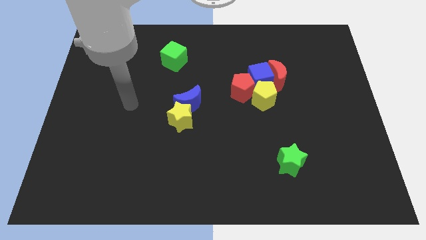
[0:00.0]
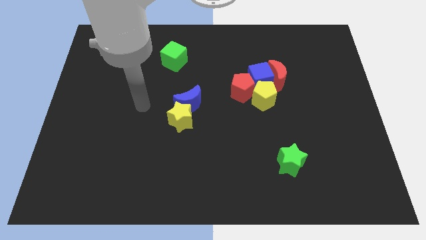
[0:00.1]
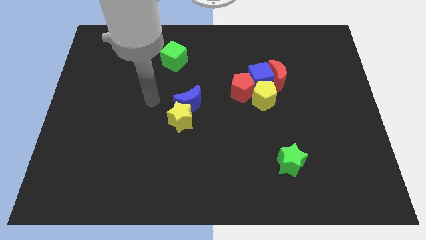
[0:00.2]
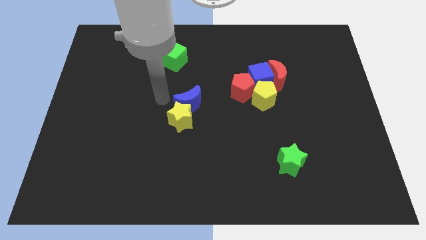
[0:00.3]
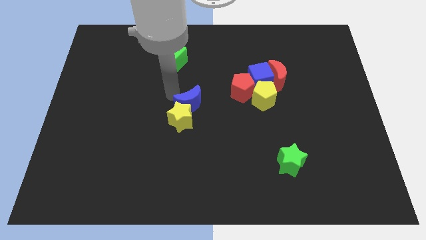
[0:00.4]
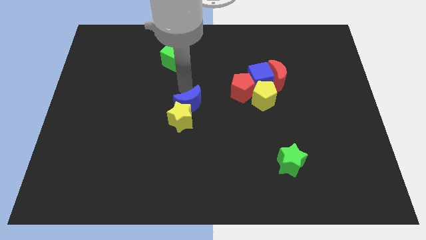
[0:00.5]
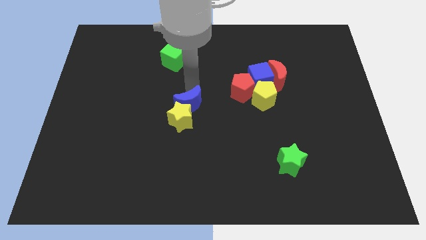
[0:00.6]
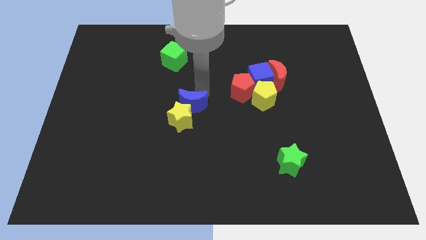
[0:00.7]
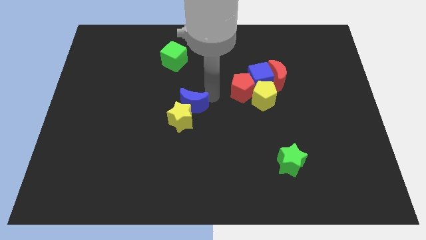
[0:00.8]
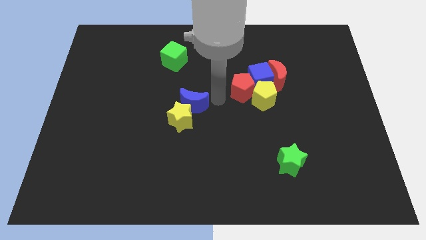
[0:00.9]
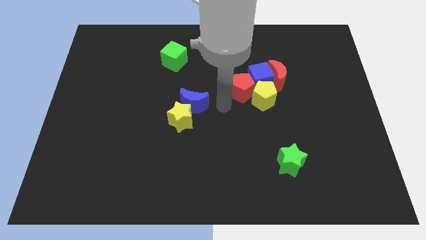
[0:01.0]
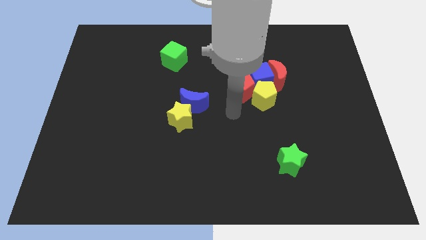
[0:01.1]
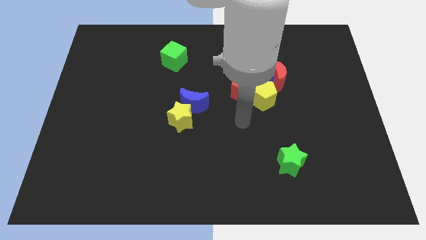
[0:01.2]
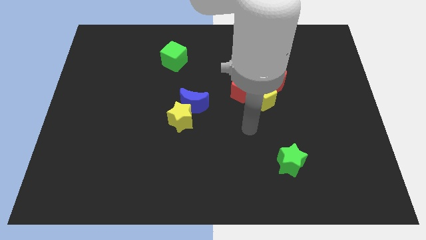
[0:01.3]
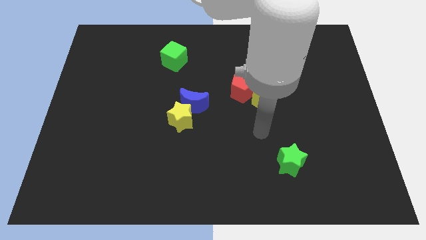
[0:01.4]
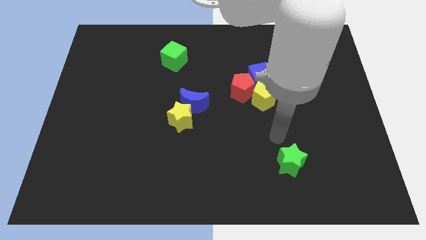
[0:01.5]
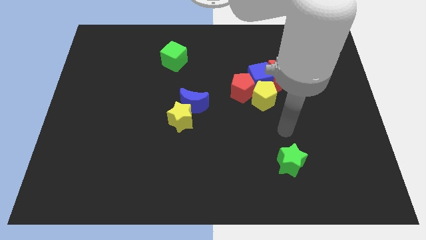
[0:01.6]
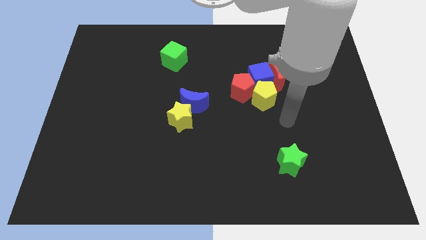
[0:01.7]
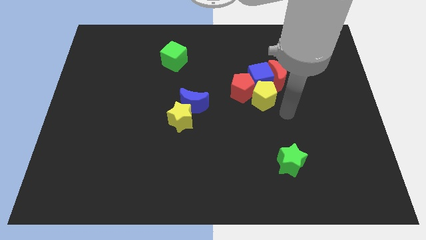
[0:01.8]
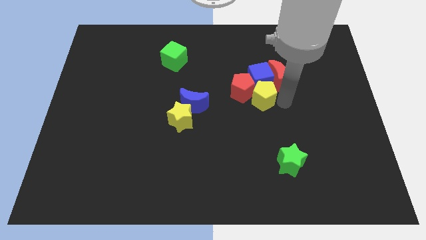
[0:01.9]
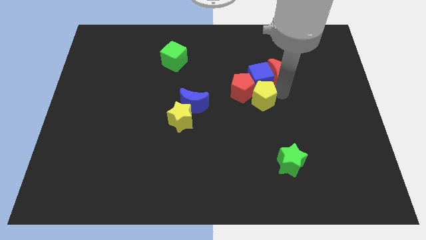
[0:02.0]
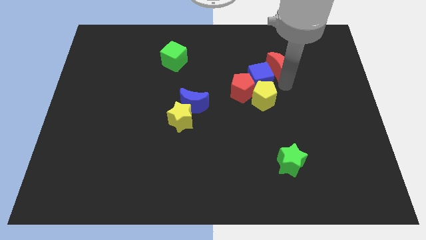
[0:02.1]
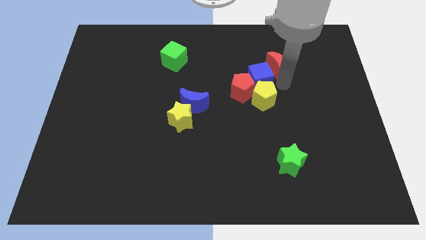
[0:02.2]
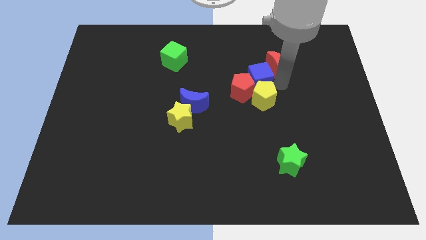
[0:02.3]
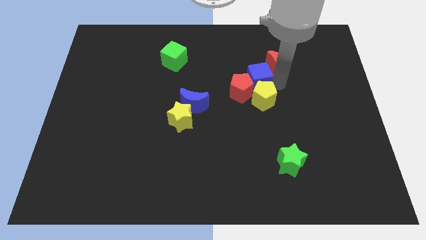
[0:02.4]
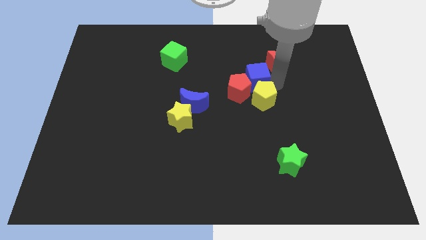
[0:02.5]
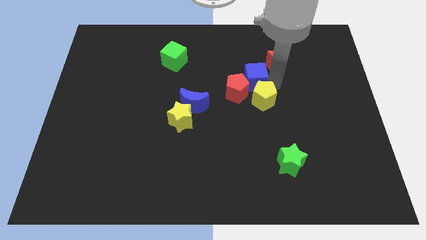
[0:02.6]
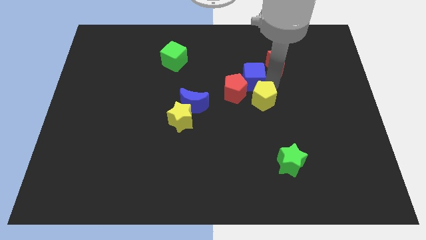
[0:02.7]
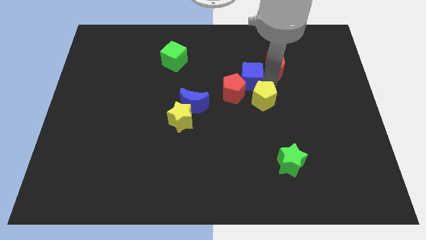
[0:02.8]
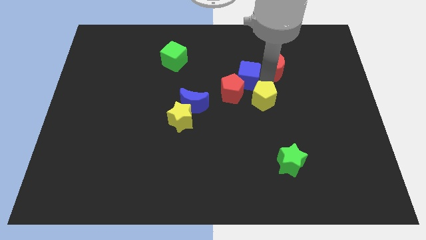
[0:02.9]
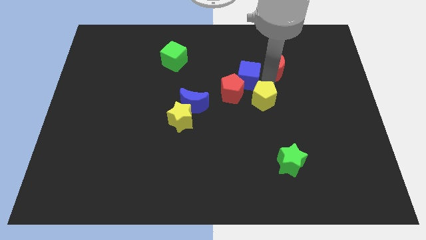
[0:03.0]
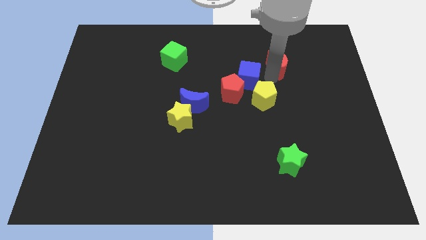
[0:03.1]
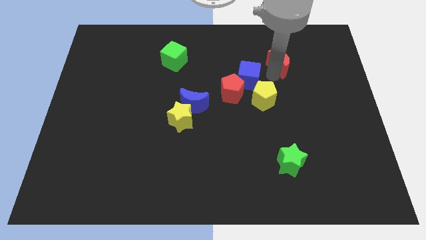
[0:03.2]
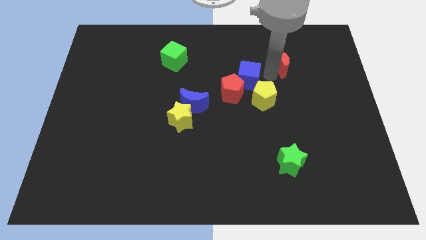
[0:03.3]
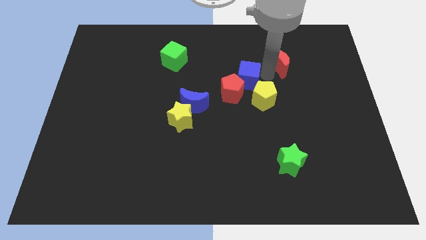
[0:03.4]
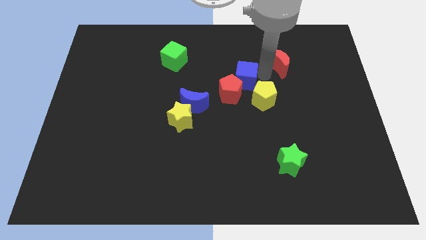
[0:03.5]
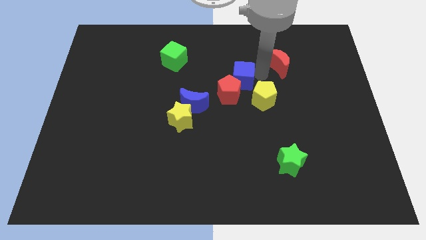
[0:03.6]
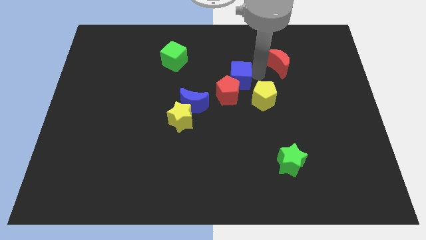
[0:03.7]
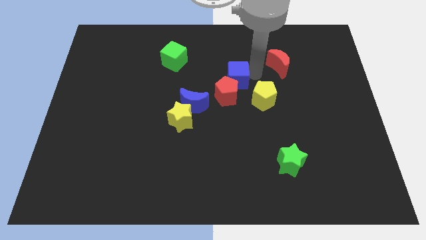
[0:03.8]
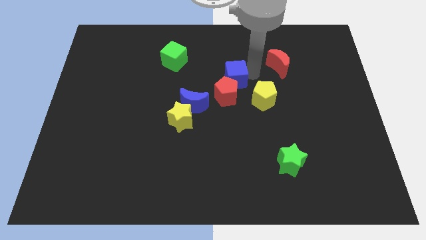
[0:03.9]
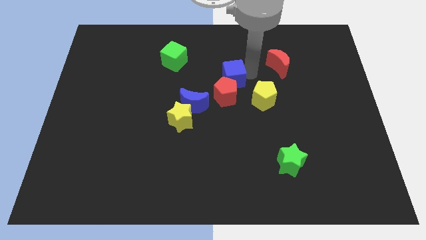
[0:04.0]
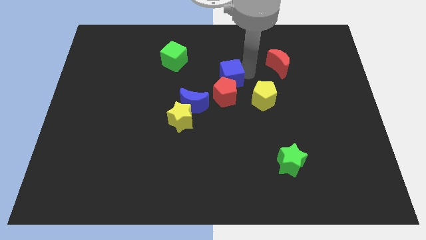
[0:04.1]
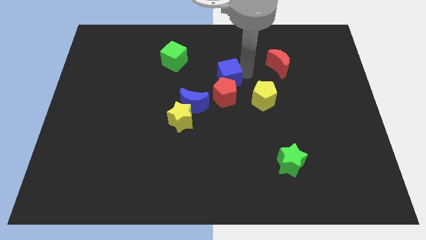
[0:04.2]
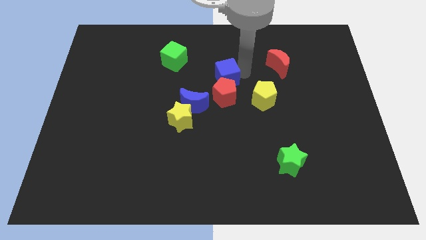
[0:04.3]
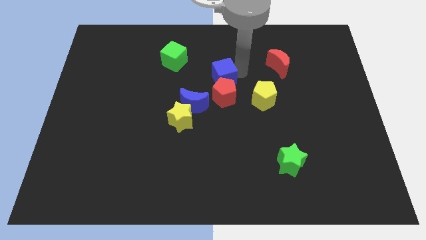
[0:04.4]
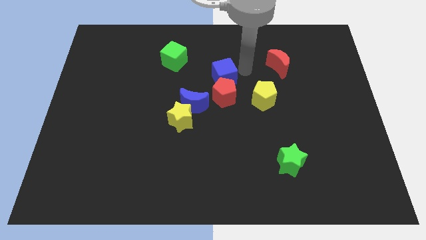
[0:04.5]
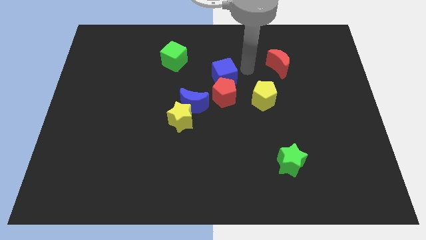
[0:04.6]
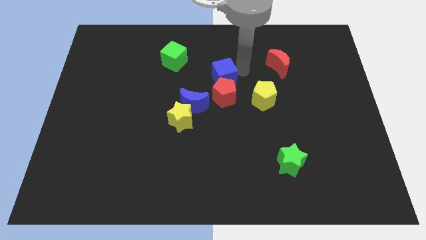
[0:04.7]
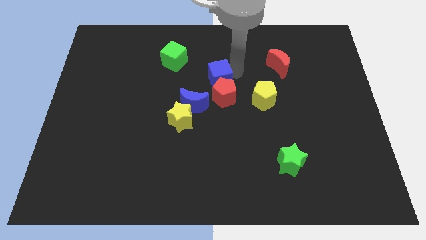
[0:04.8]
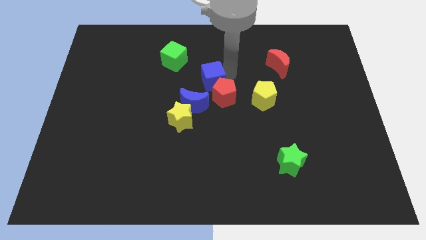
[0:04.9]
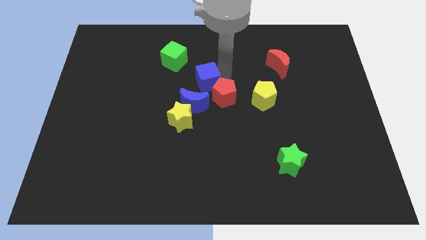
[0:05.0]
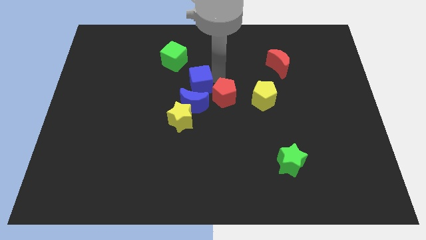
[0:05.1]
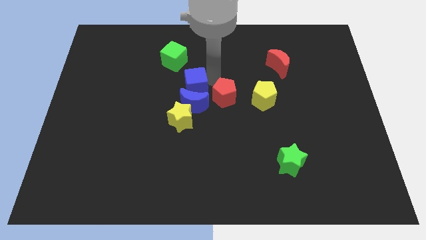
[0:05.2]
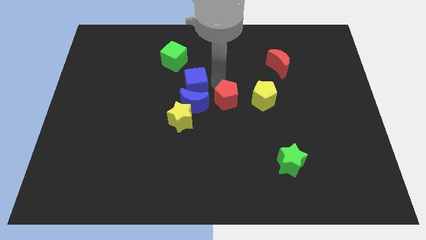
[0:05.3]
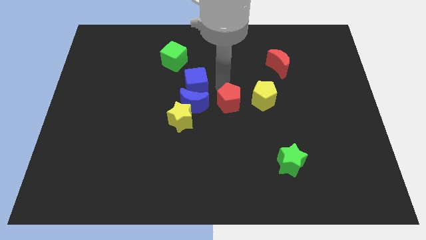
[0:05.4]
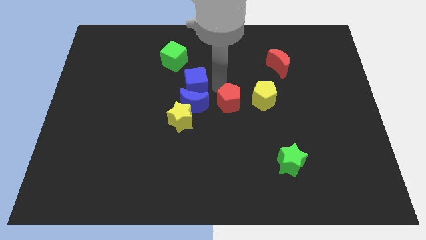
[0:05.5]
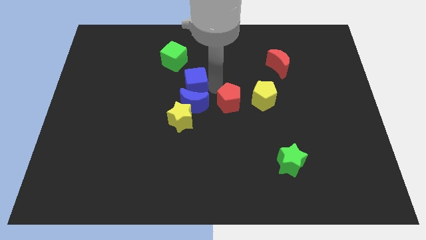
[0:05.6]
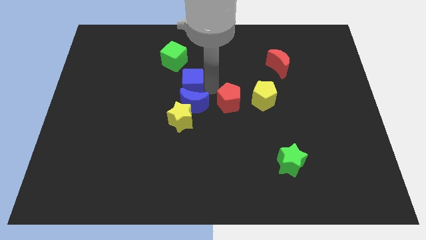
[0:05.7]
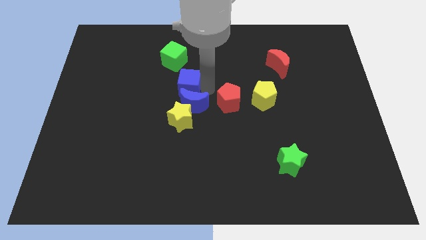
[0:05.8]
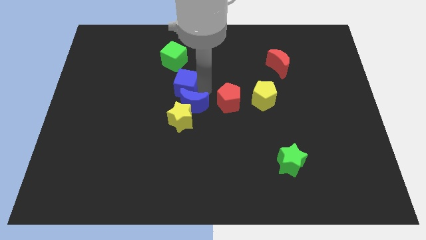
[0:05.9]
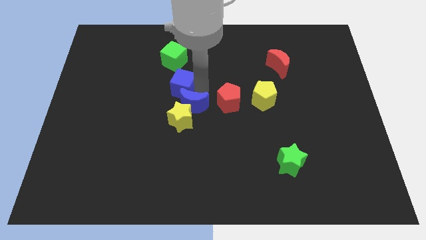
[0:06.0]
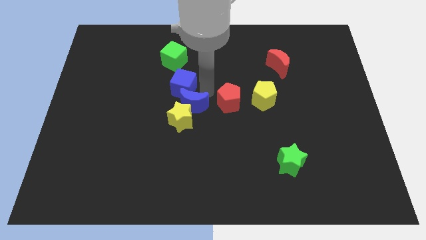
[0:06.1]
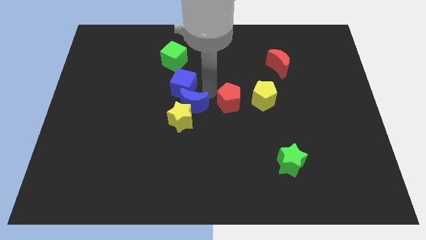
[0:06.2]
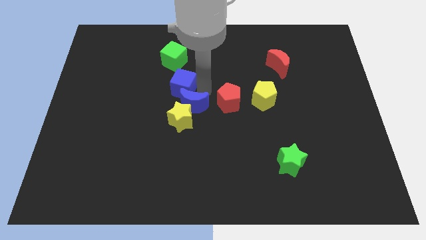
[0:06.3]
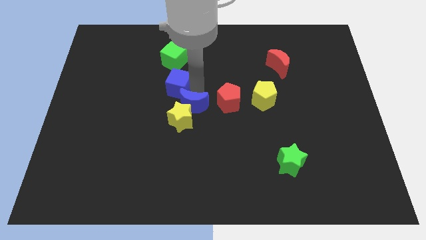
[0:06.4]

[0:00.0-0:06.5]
slide the blue cube to the left

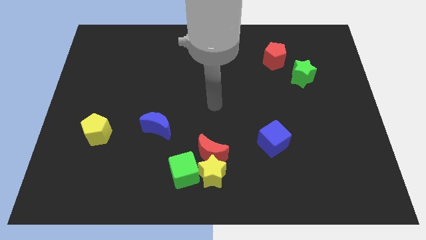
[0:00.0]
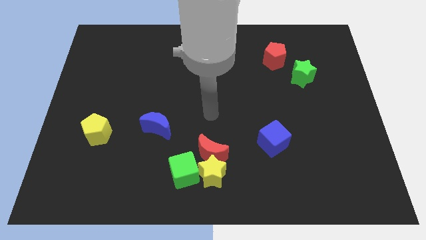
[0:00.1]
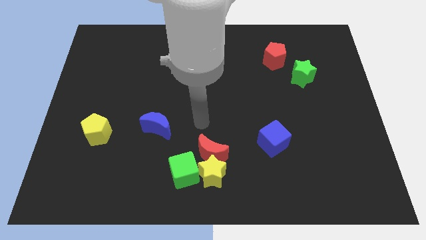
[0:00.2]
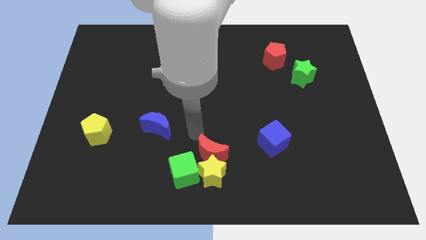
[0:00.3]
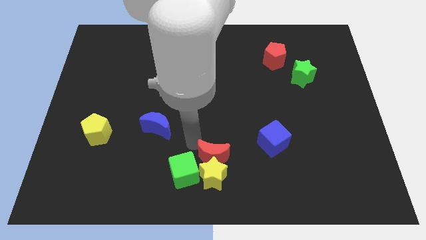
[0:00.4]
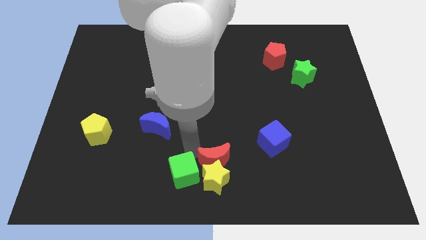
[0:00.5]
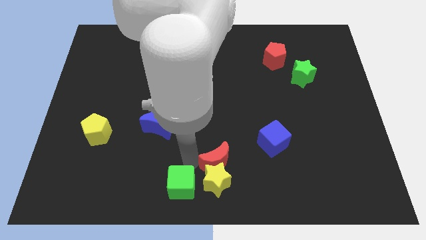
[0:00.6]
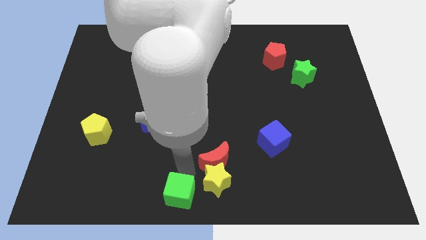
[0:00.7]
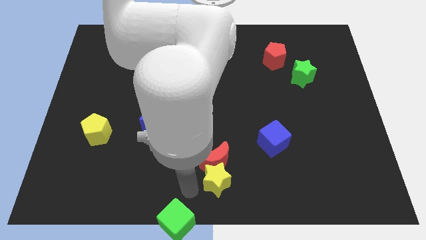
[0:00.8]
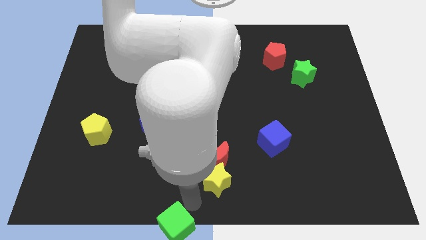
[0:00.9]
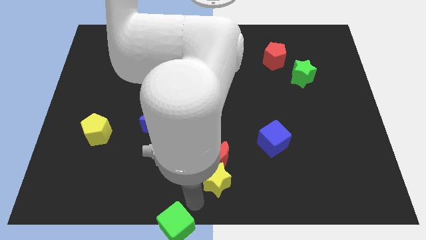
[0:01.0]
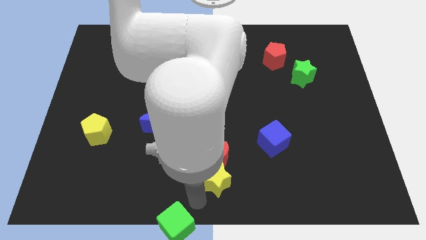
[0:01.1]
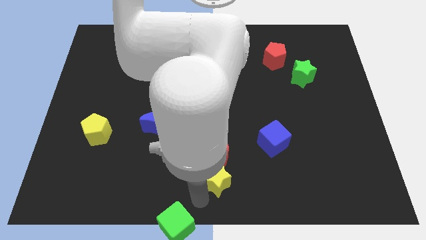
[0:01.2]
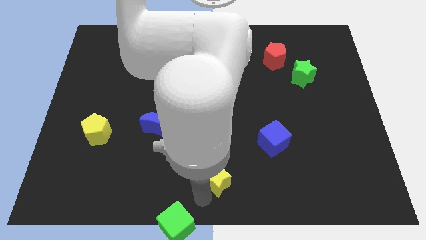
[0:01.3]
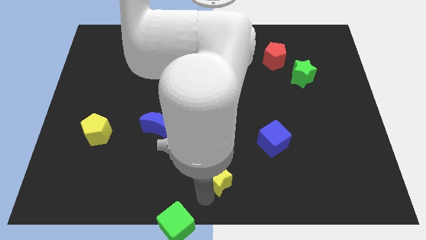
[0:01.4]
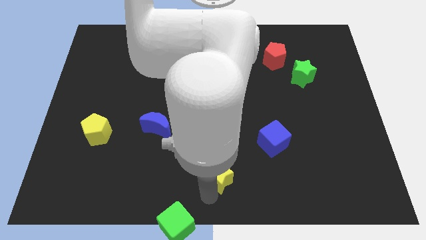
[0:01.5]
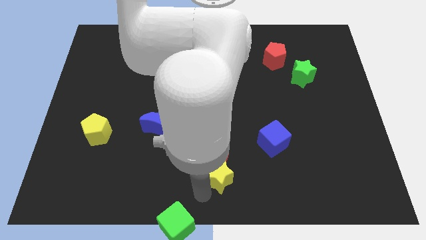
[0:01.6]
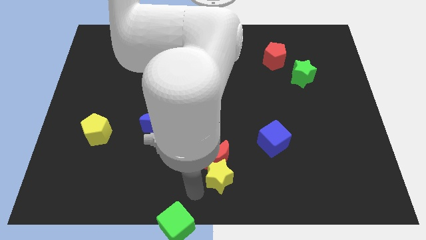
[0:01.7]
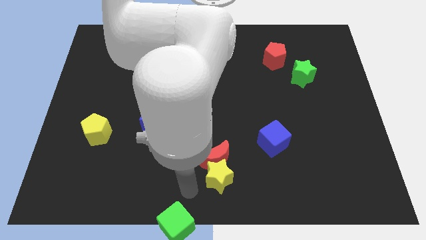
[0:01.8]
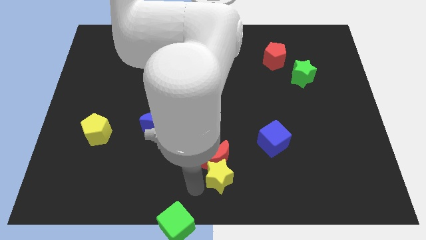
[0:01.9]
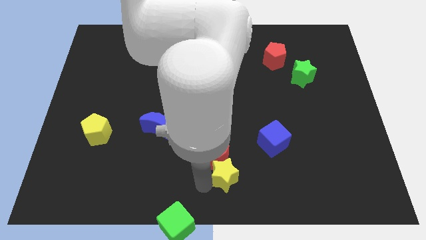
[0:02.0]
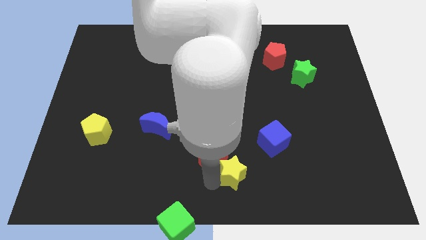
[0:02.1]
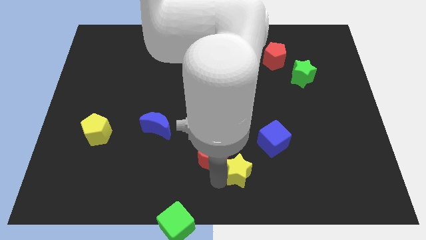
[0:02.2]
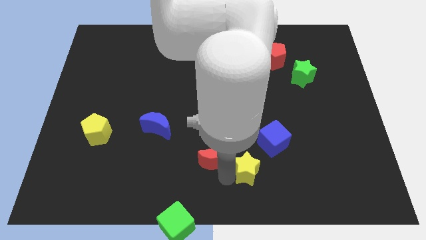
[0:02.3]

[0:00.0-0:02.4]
slightly slide the yellow star right
